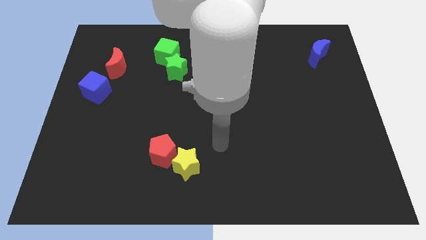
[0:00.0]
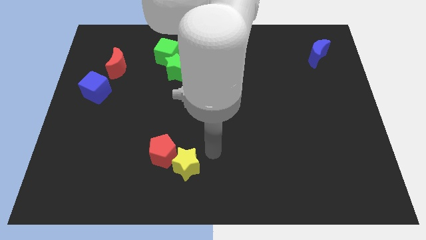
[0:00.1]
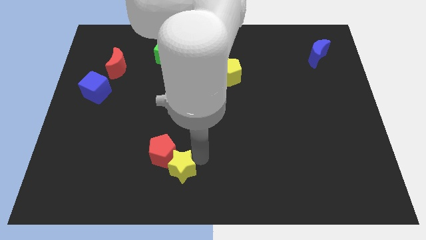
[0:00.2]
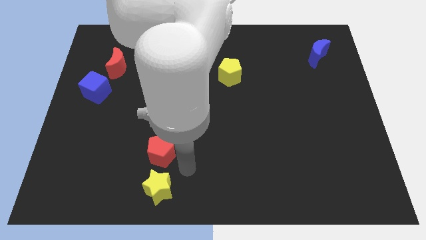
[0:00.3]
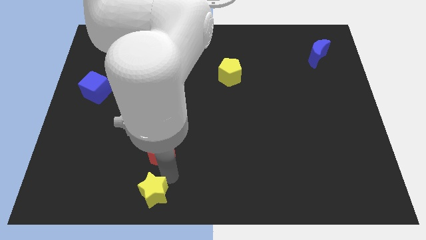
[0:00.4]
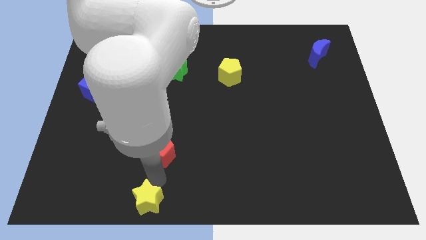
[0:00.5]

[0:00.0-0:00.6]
pull the red pentagon apart from the yellow star

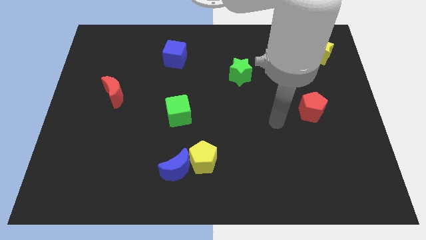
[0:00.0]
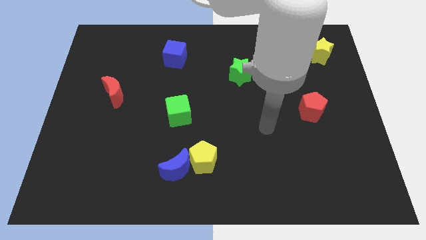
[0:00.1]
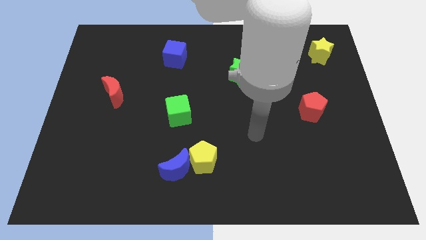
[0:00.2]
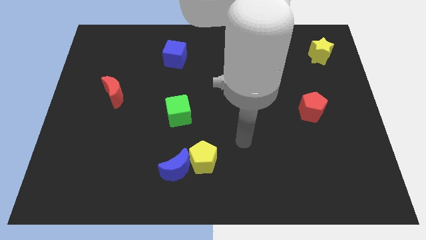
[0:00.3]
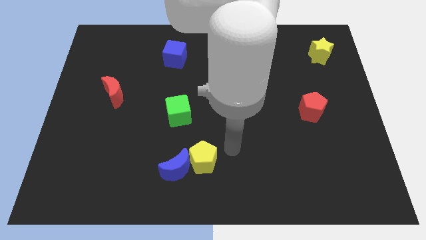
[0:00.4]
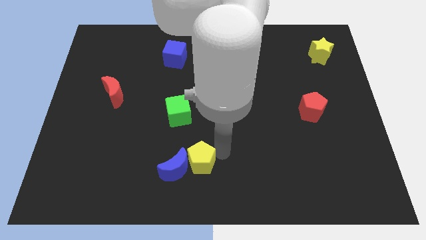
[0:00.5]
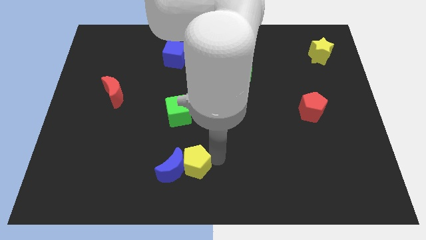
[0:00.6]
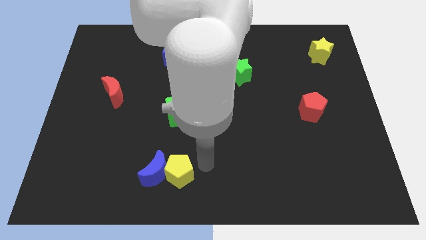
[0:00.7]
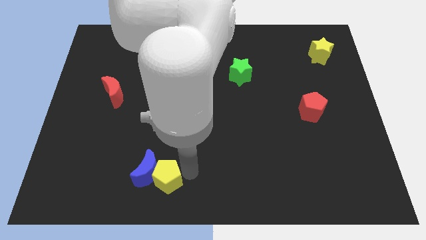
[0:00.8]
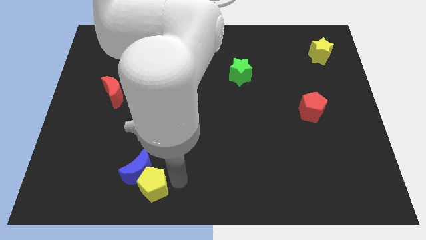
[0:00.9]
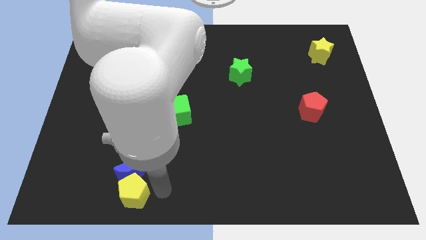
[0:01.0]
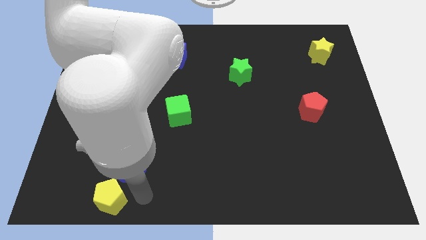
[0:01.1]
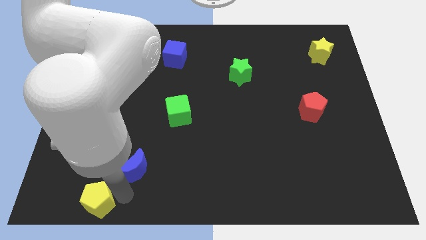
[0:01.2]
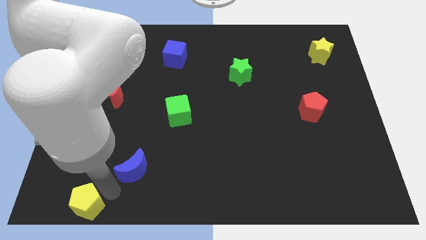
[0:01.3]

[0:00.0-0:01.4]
pull the blue moon apart from the yellow pentagon

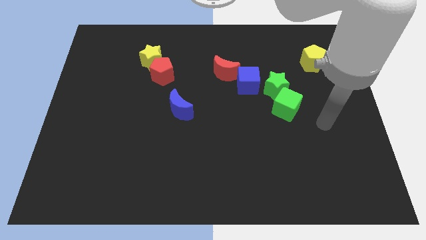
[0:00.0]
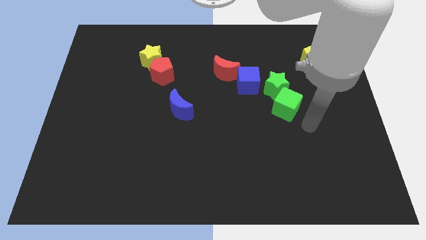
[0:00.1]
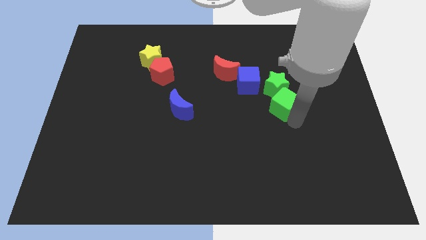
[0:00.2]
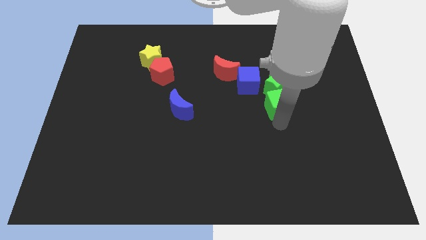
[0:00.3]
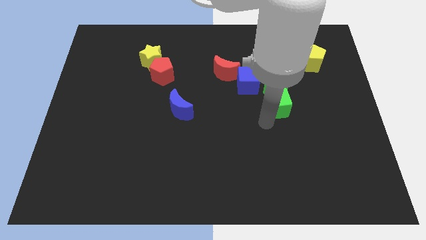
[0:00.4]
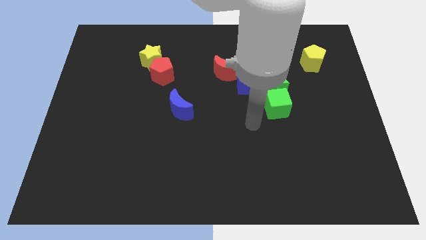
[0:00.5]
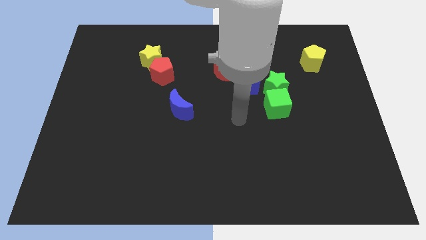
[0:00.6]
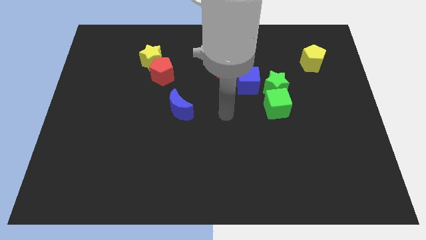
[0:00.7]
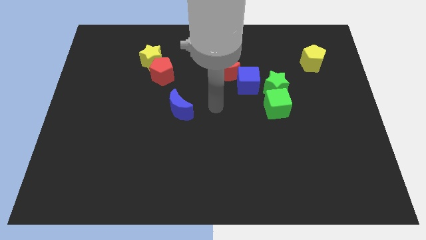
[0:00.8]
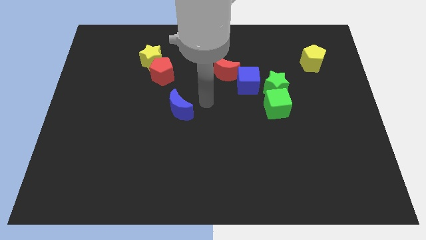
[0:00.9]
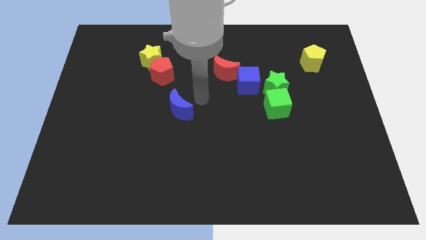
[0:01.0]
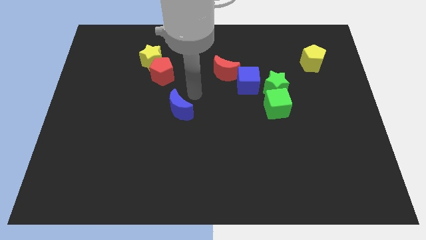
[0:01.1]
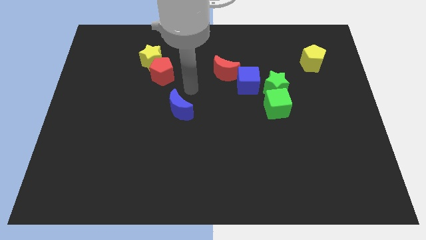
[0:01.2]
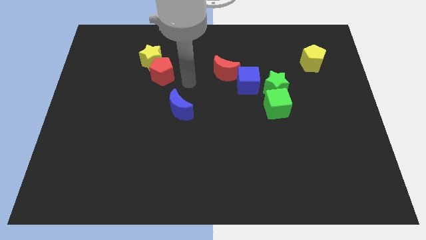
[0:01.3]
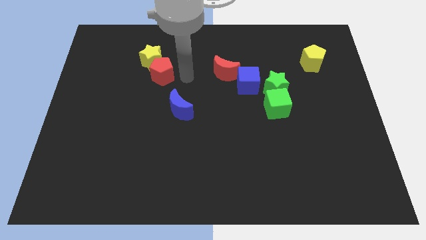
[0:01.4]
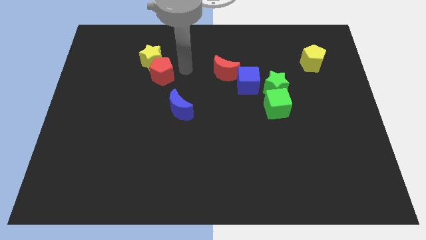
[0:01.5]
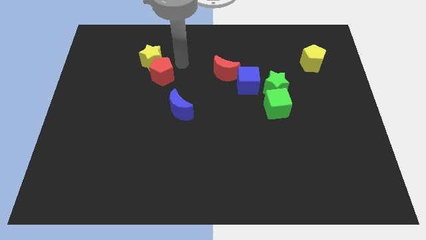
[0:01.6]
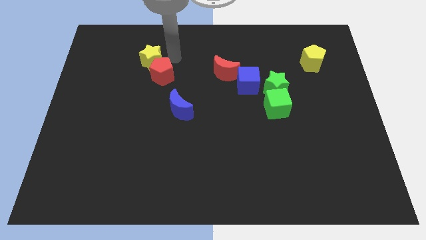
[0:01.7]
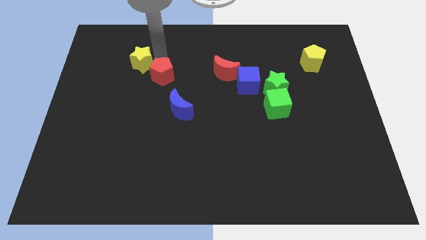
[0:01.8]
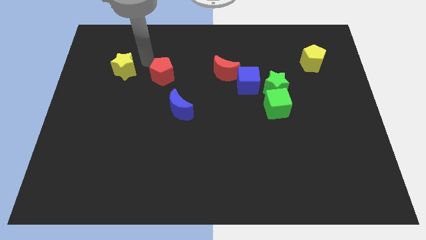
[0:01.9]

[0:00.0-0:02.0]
separate the red pentagon from the yellow star

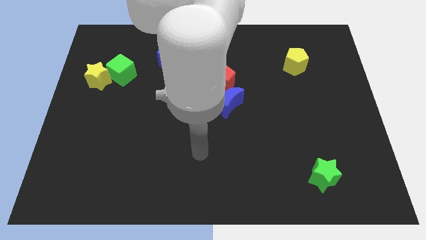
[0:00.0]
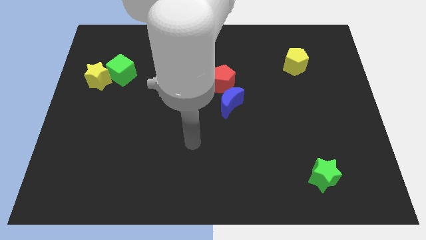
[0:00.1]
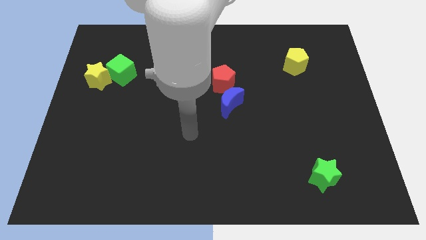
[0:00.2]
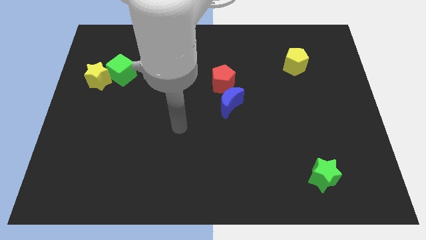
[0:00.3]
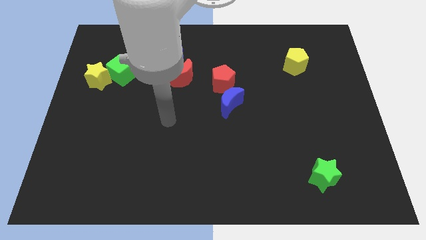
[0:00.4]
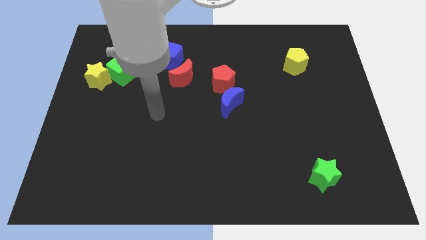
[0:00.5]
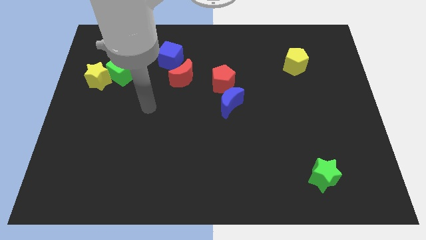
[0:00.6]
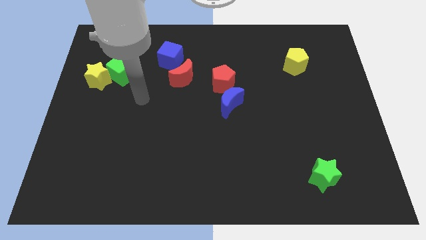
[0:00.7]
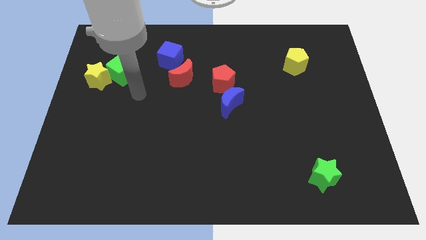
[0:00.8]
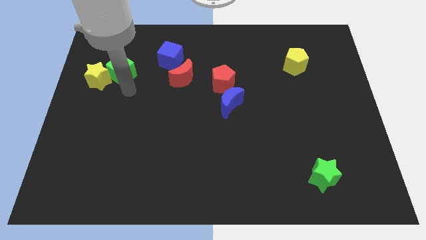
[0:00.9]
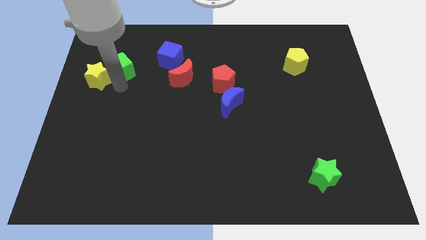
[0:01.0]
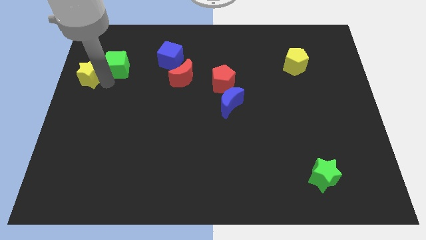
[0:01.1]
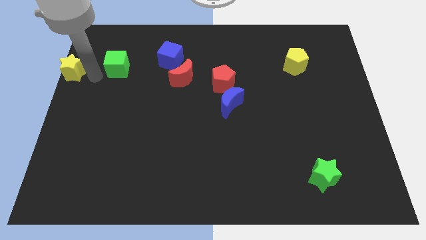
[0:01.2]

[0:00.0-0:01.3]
pull the green cube apart from the yellow star

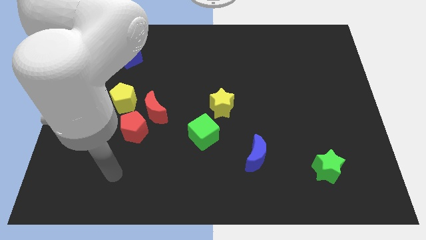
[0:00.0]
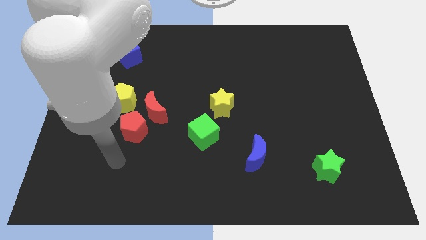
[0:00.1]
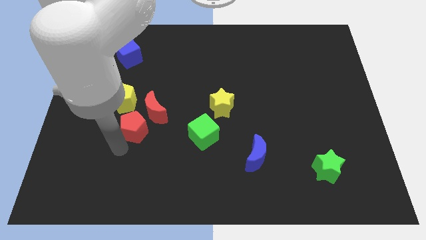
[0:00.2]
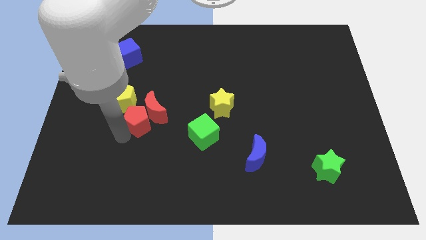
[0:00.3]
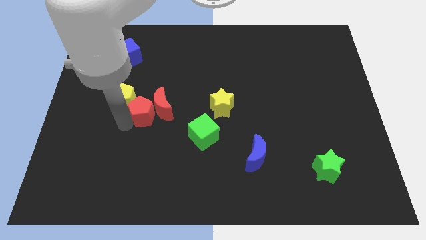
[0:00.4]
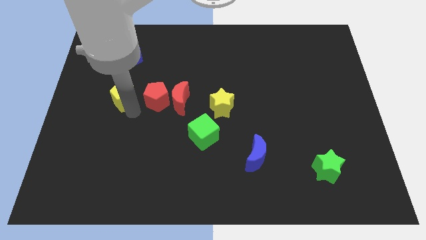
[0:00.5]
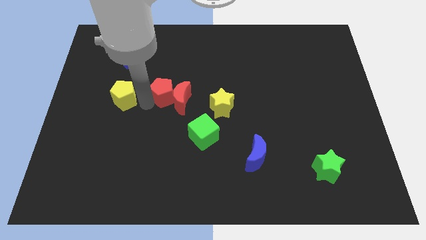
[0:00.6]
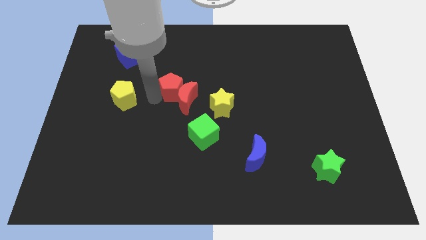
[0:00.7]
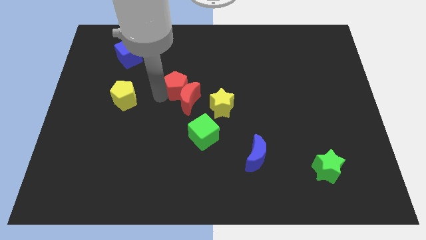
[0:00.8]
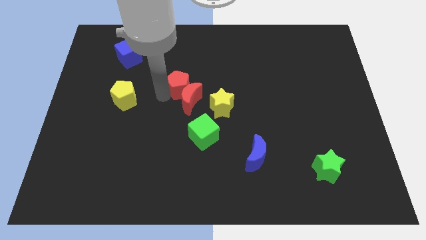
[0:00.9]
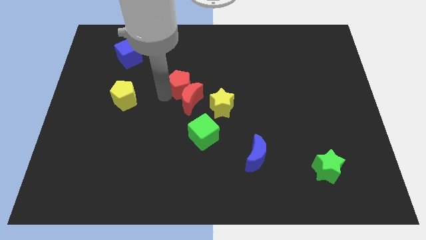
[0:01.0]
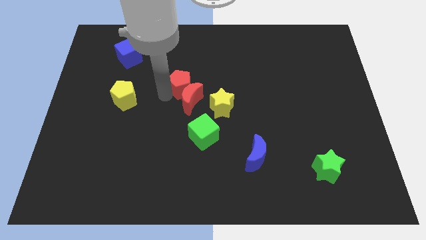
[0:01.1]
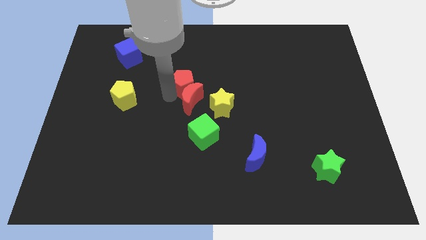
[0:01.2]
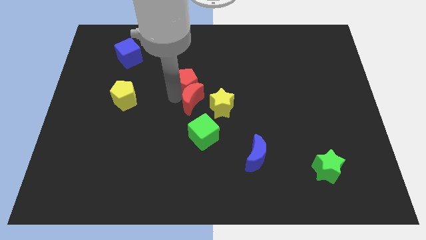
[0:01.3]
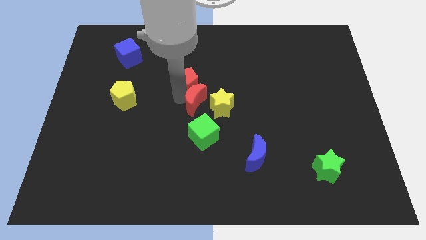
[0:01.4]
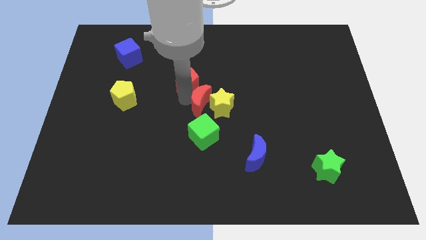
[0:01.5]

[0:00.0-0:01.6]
separate the red moon from the red pentagon and yellow pentagon

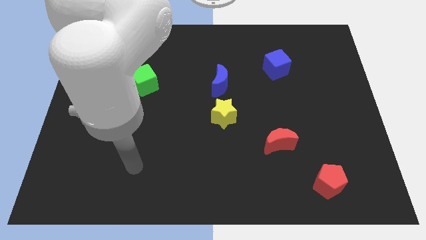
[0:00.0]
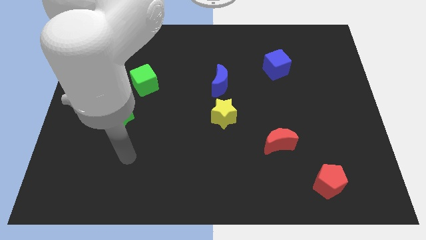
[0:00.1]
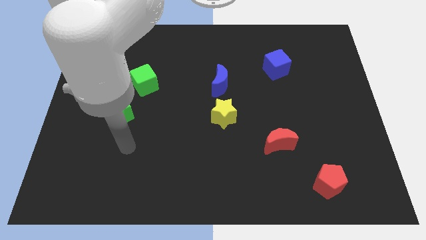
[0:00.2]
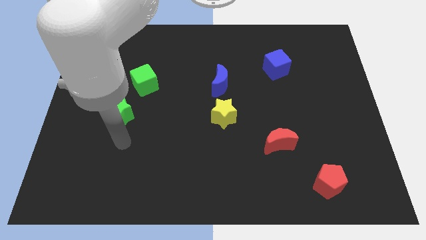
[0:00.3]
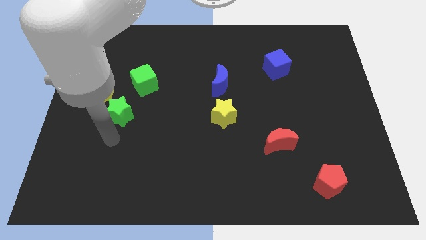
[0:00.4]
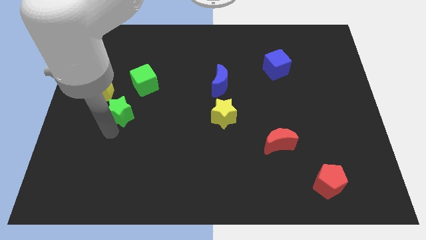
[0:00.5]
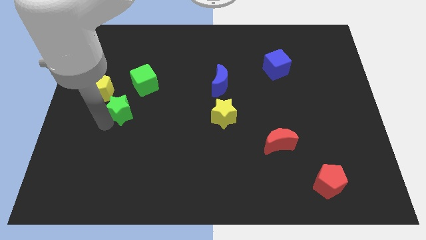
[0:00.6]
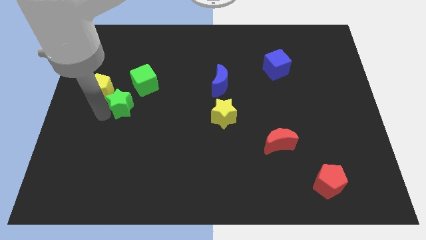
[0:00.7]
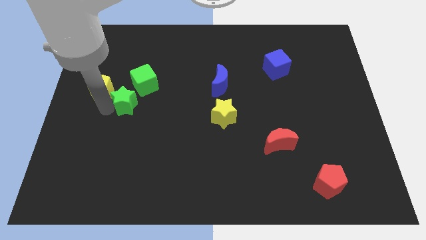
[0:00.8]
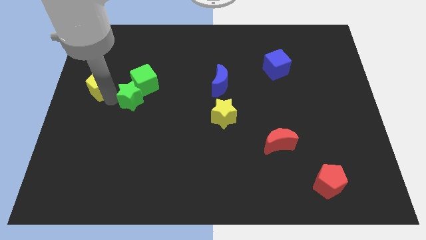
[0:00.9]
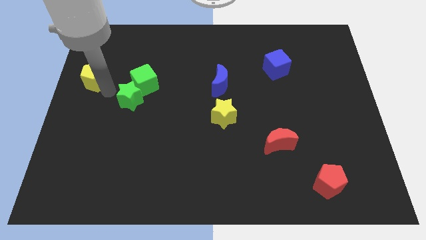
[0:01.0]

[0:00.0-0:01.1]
separate the green star from the yellow pentagon

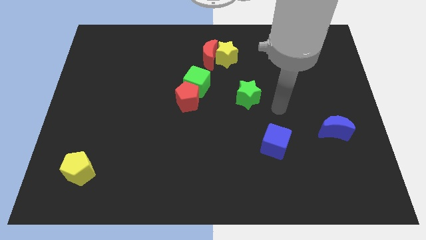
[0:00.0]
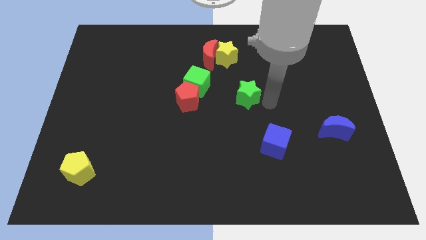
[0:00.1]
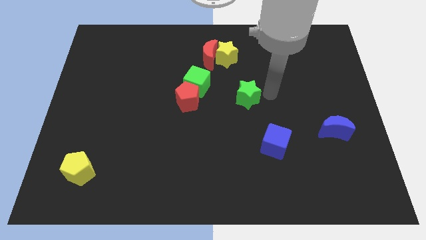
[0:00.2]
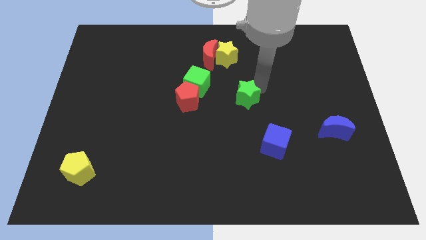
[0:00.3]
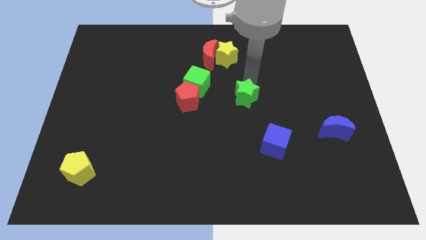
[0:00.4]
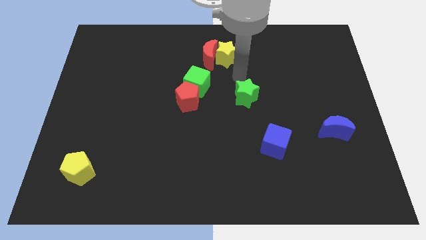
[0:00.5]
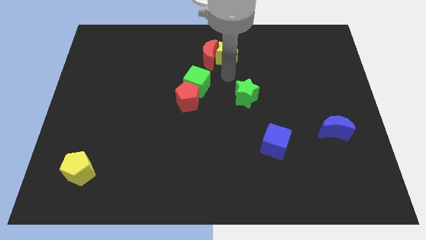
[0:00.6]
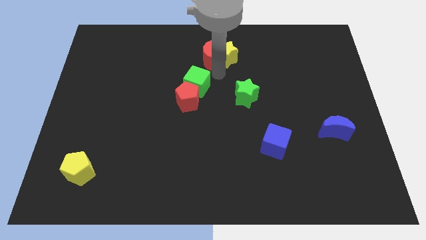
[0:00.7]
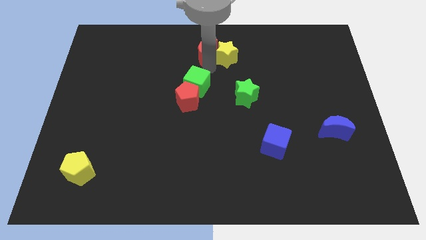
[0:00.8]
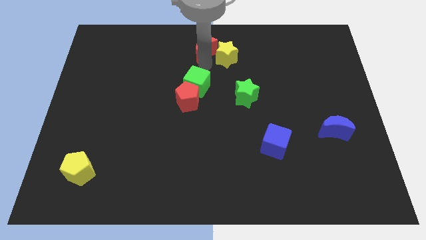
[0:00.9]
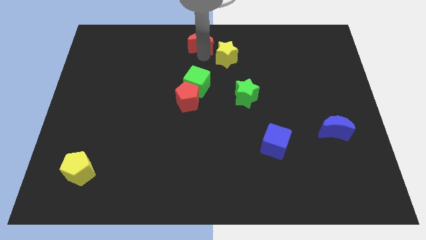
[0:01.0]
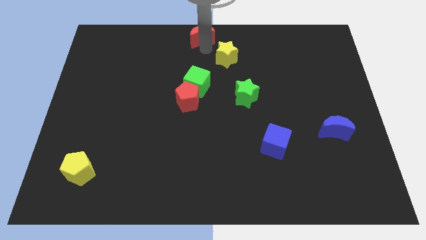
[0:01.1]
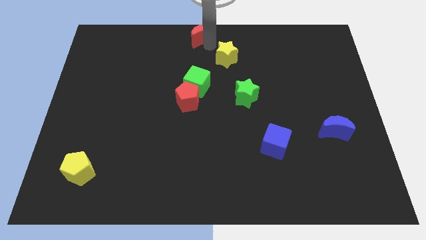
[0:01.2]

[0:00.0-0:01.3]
pull the yellow star apart from the red moon
